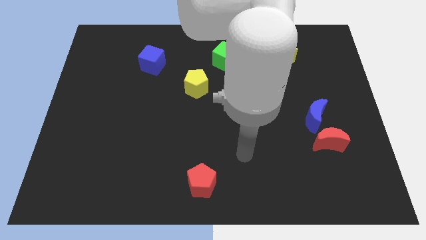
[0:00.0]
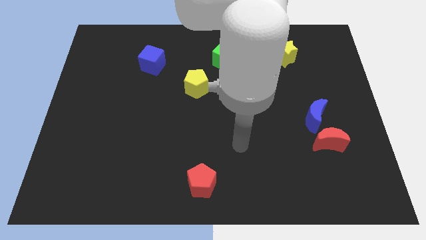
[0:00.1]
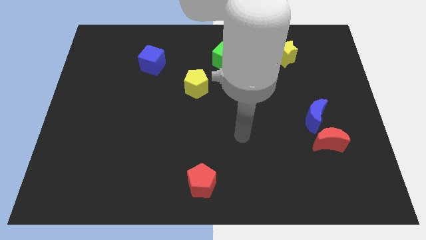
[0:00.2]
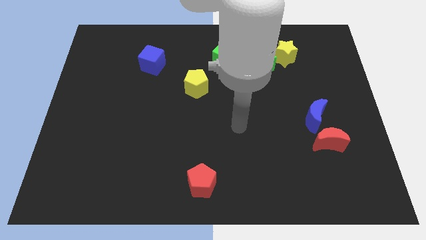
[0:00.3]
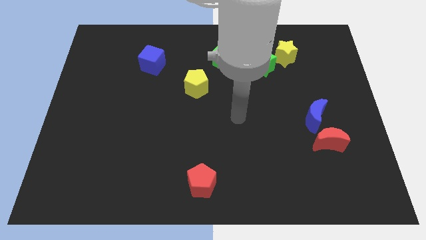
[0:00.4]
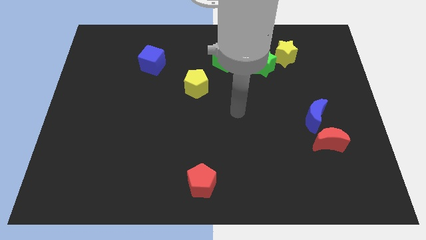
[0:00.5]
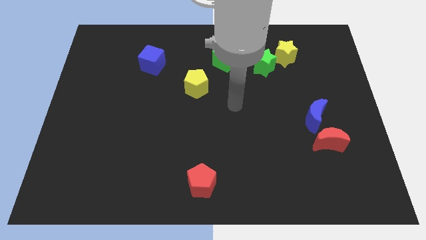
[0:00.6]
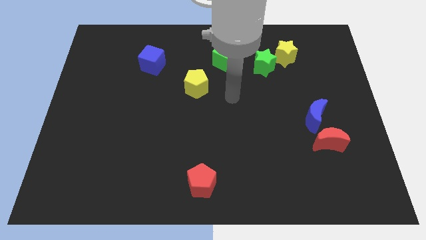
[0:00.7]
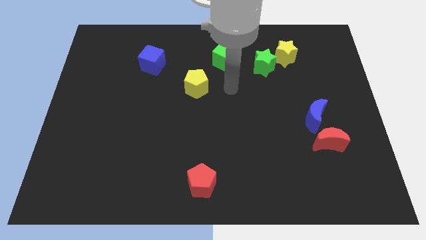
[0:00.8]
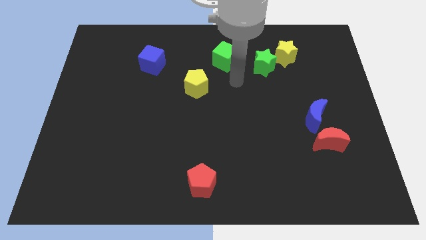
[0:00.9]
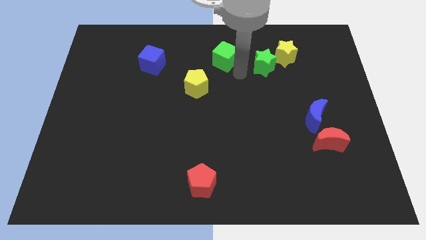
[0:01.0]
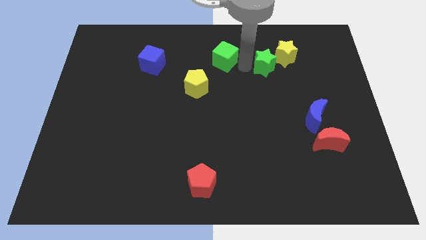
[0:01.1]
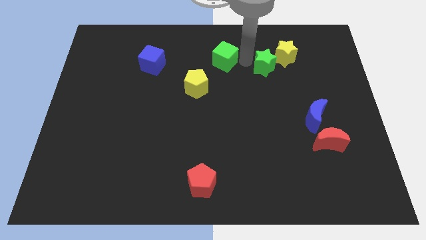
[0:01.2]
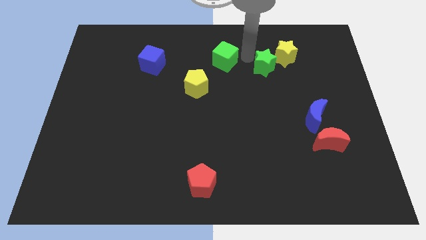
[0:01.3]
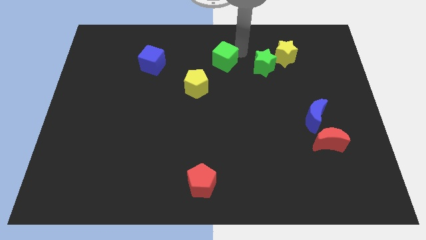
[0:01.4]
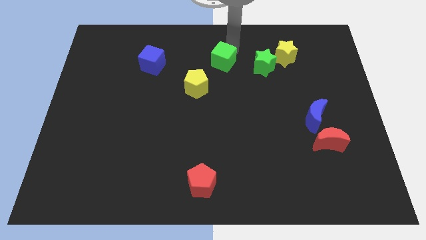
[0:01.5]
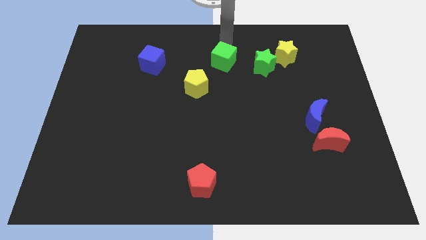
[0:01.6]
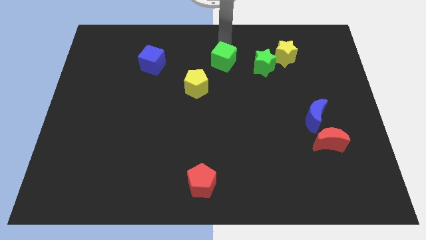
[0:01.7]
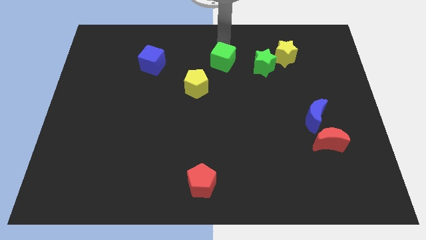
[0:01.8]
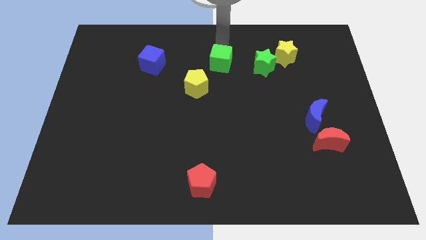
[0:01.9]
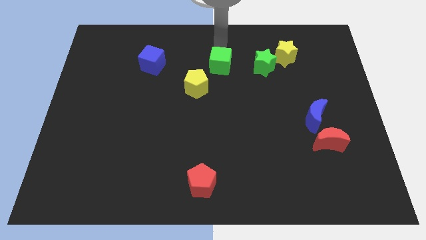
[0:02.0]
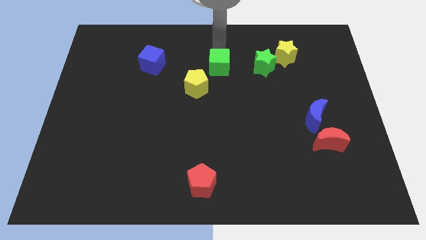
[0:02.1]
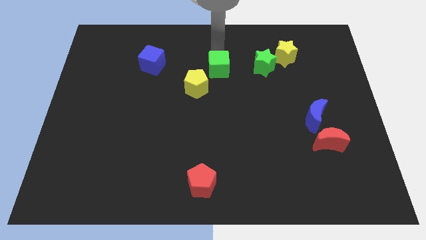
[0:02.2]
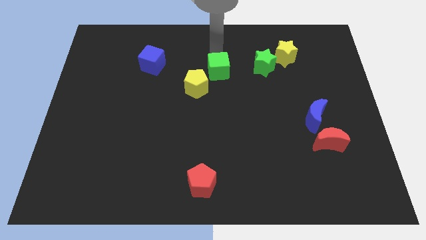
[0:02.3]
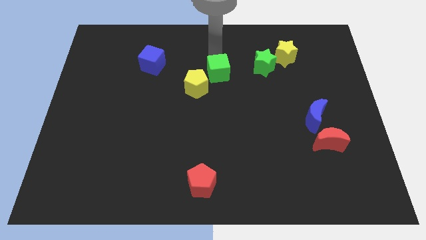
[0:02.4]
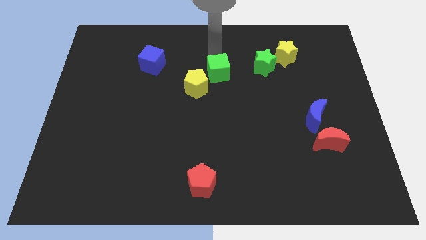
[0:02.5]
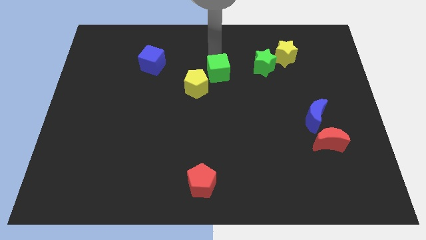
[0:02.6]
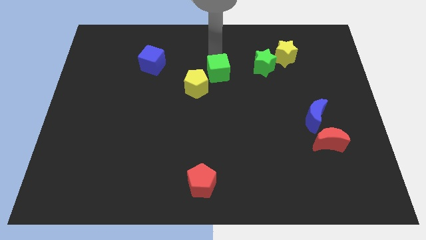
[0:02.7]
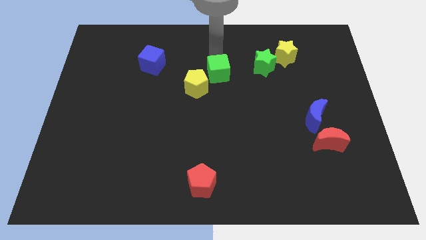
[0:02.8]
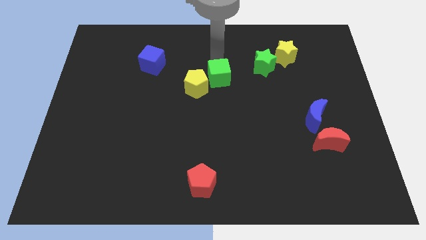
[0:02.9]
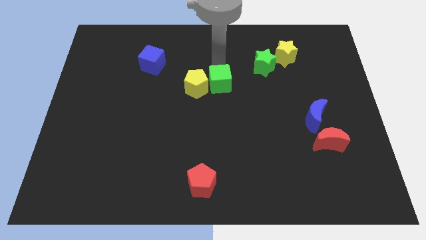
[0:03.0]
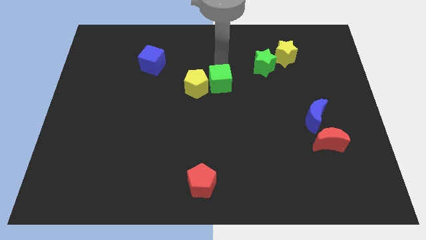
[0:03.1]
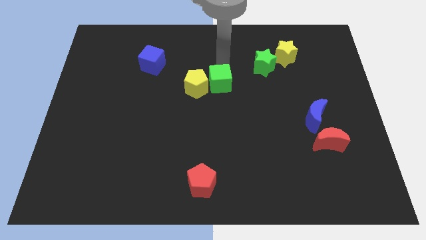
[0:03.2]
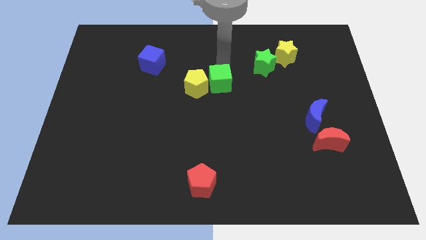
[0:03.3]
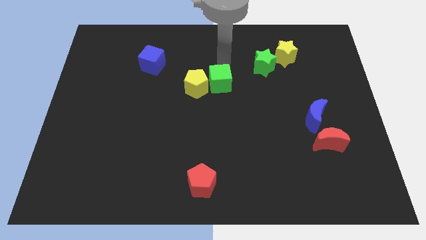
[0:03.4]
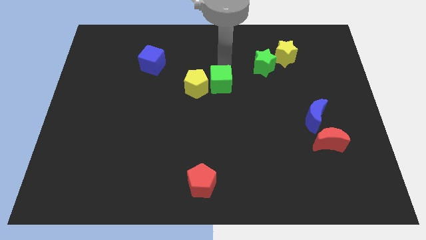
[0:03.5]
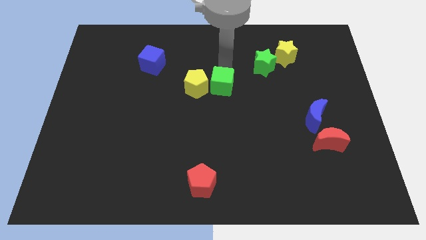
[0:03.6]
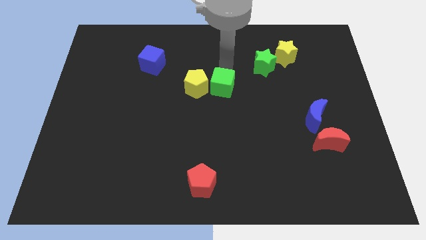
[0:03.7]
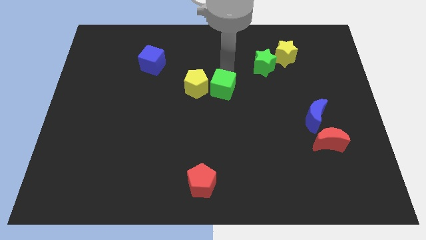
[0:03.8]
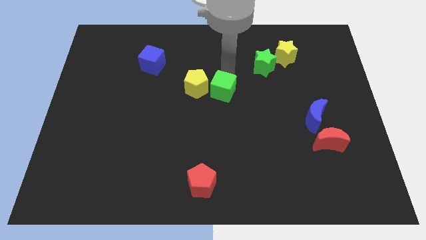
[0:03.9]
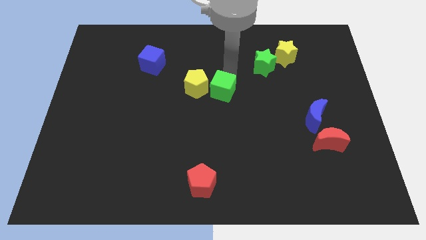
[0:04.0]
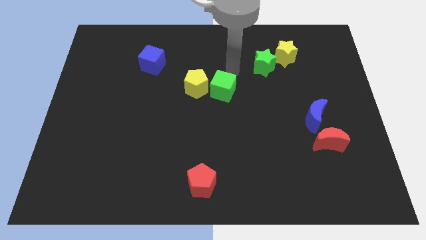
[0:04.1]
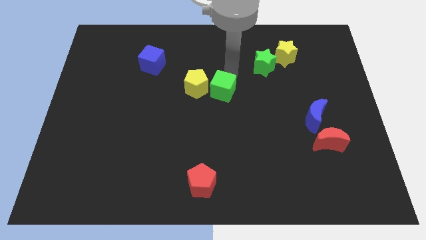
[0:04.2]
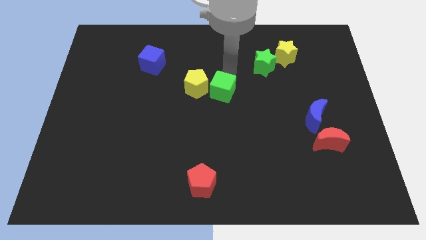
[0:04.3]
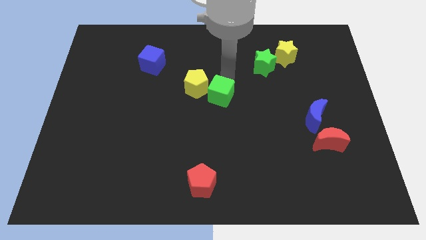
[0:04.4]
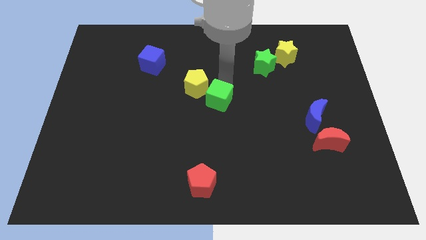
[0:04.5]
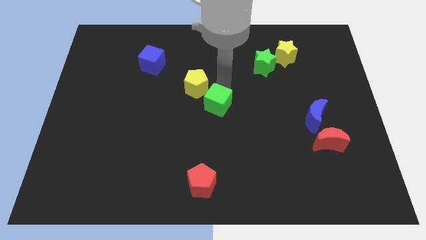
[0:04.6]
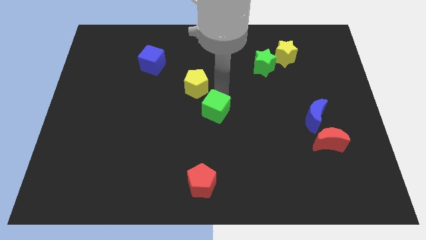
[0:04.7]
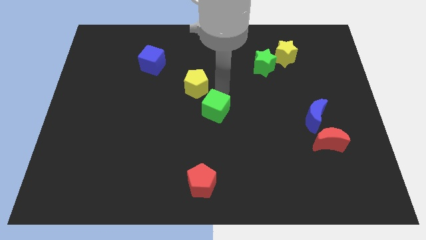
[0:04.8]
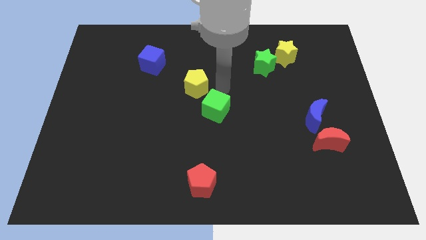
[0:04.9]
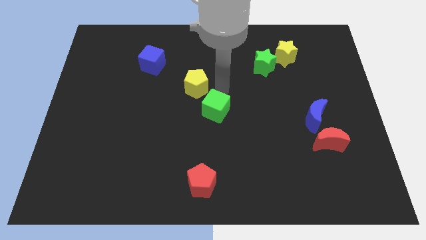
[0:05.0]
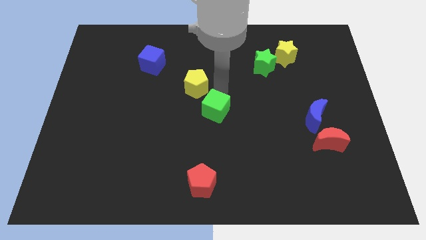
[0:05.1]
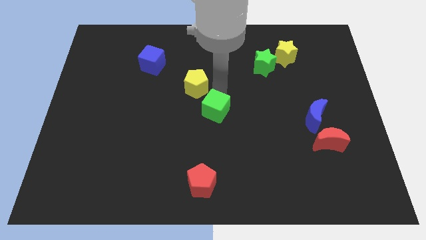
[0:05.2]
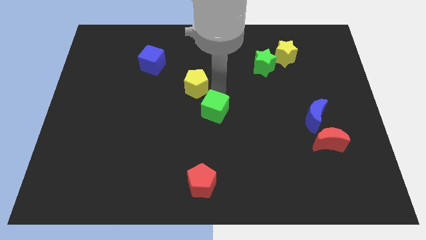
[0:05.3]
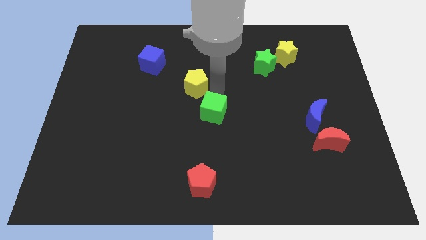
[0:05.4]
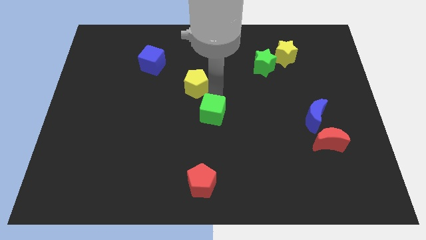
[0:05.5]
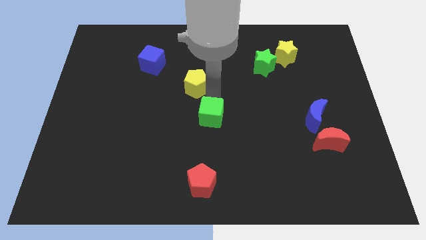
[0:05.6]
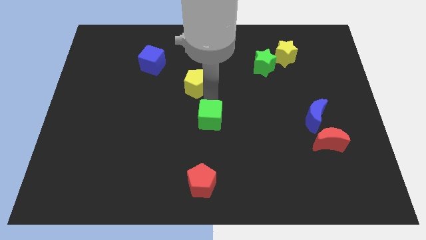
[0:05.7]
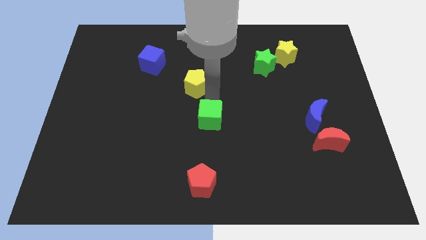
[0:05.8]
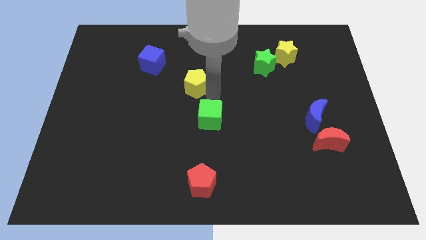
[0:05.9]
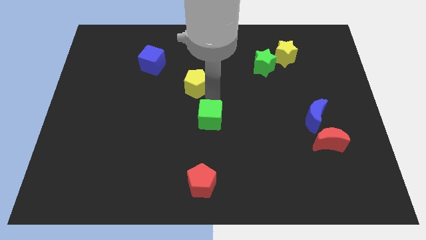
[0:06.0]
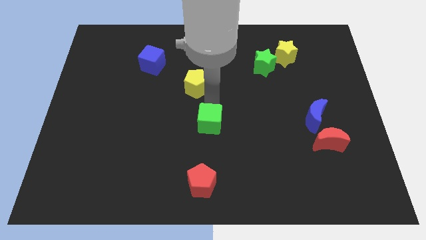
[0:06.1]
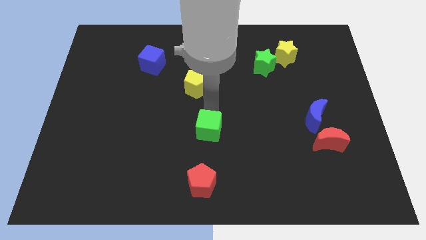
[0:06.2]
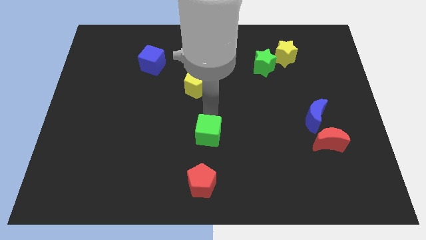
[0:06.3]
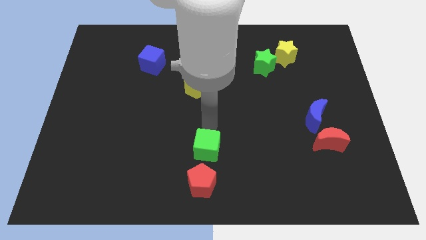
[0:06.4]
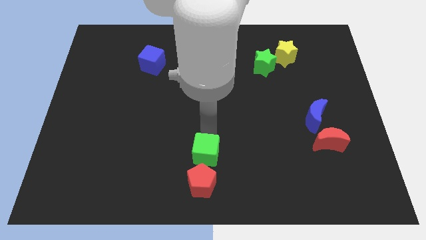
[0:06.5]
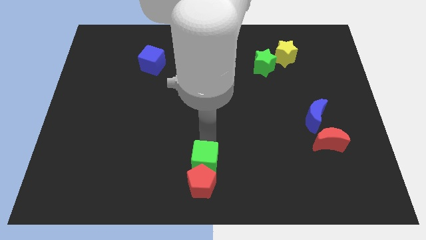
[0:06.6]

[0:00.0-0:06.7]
slide the green cube next to the red pentagon
